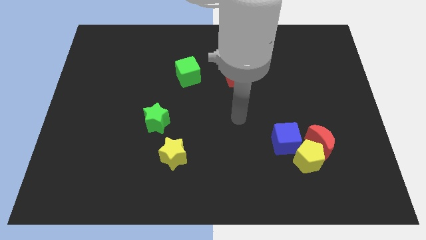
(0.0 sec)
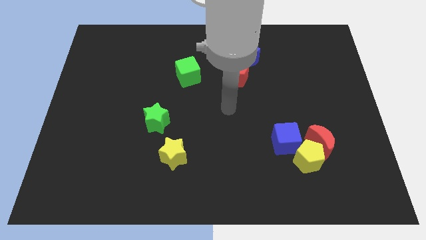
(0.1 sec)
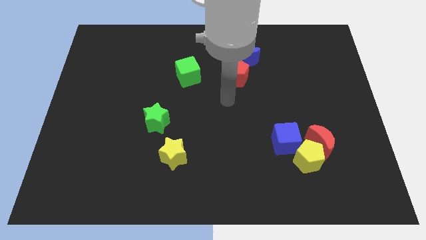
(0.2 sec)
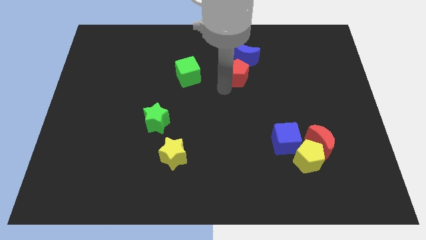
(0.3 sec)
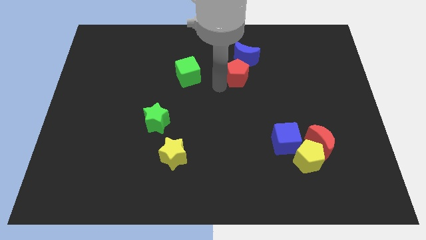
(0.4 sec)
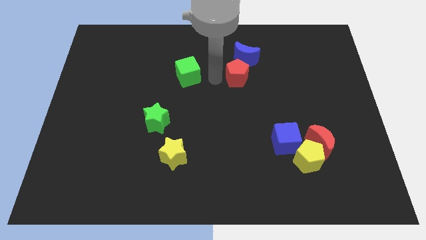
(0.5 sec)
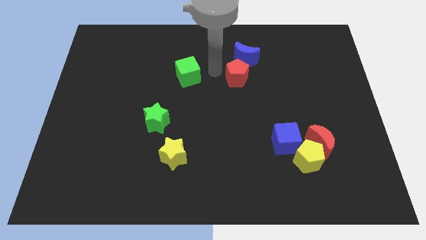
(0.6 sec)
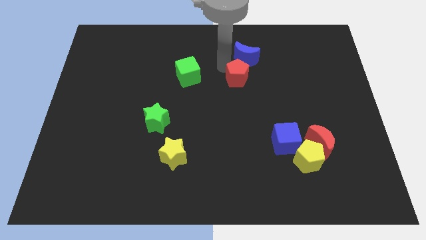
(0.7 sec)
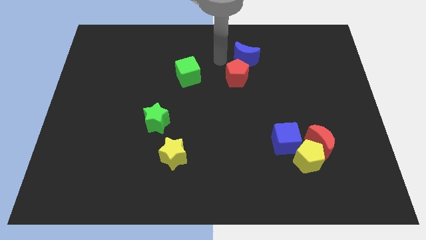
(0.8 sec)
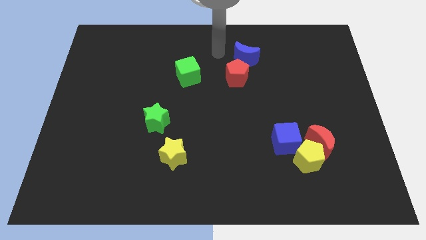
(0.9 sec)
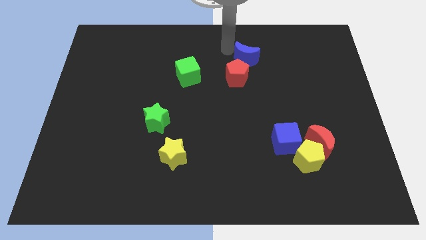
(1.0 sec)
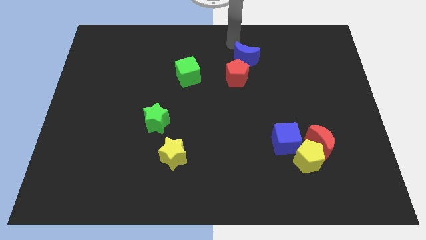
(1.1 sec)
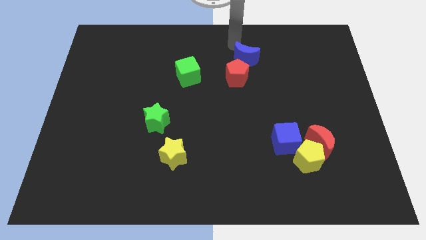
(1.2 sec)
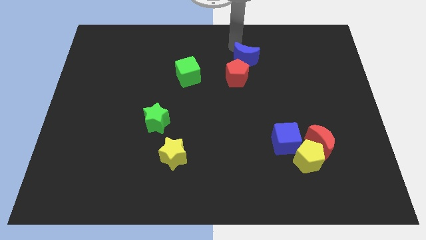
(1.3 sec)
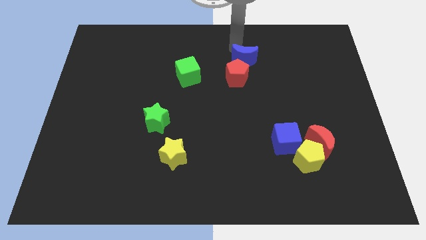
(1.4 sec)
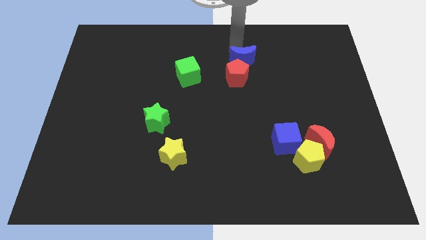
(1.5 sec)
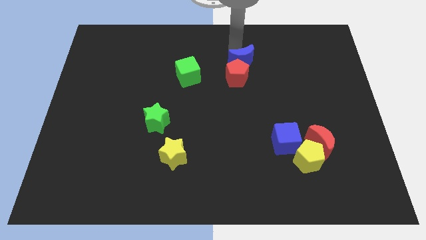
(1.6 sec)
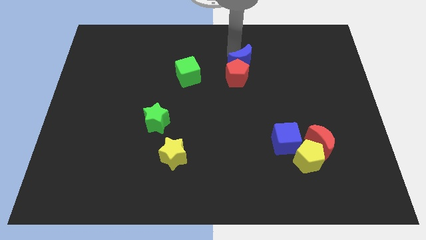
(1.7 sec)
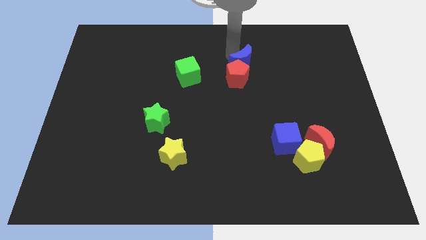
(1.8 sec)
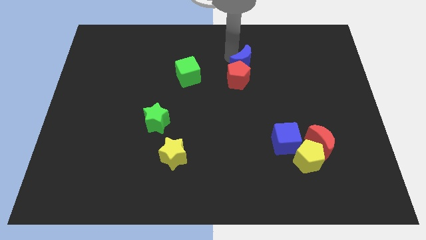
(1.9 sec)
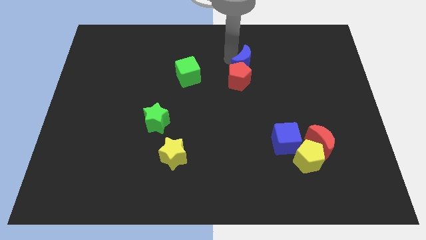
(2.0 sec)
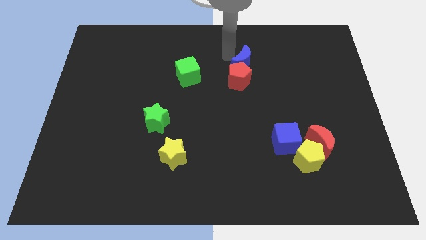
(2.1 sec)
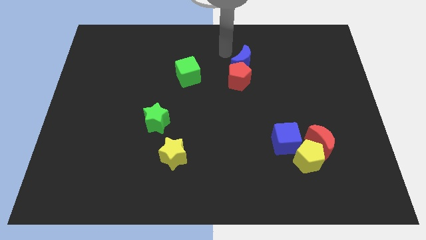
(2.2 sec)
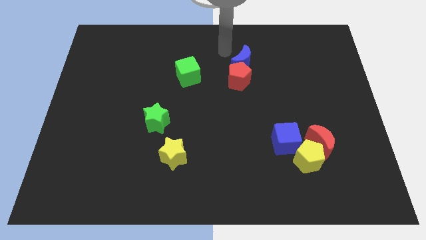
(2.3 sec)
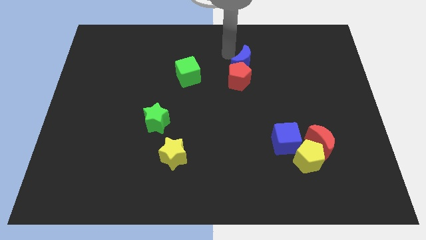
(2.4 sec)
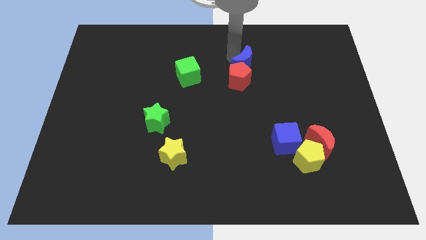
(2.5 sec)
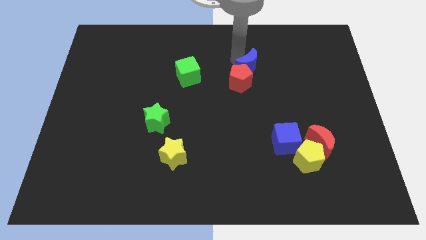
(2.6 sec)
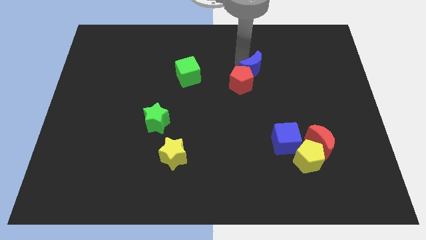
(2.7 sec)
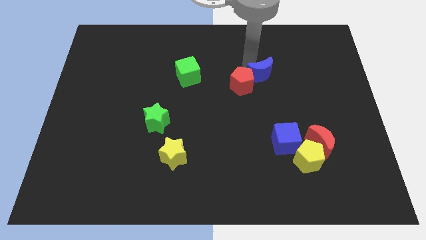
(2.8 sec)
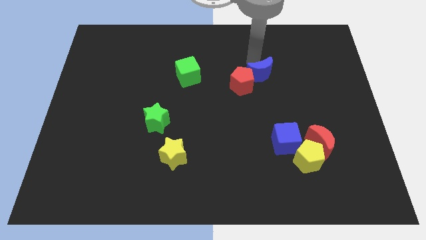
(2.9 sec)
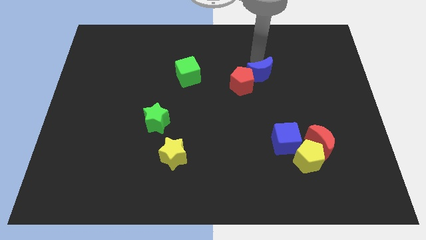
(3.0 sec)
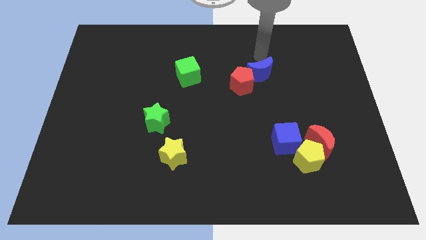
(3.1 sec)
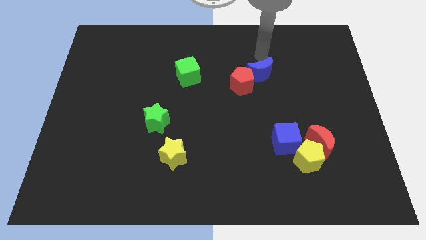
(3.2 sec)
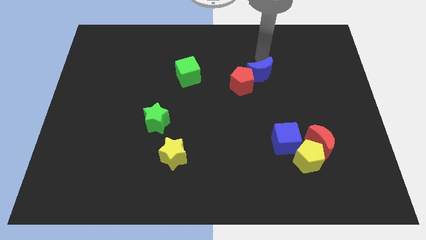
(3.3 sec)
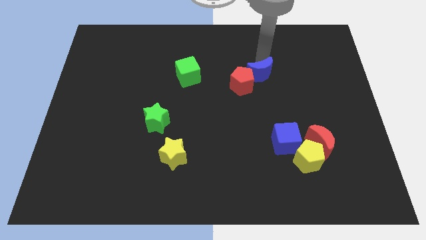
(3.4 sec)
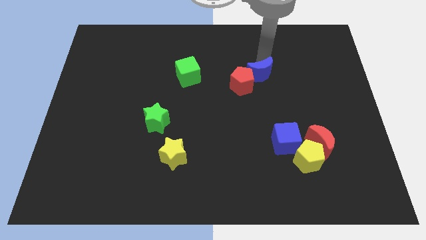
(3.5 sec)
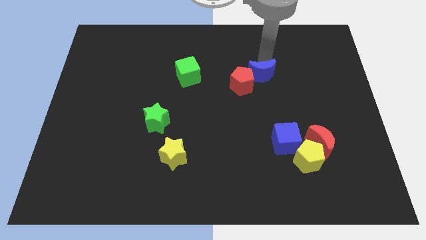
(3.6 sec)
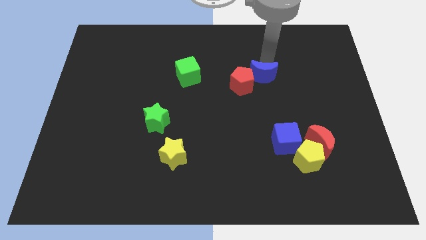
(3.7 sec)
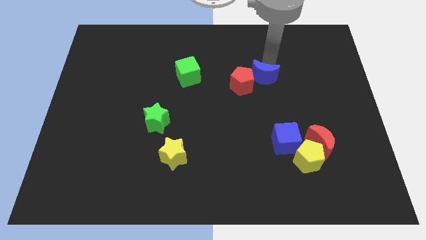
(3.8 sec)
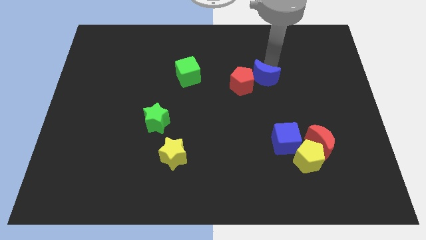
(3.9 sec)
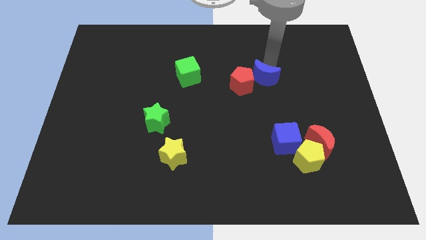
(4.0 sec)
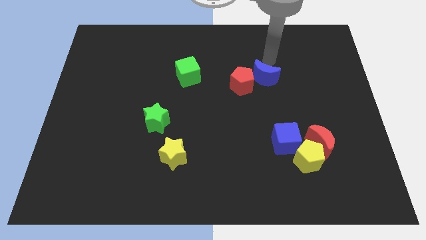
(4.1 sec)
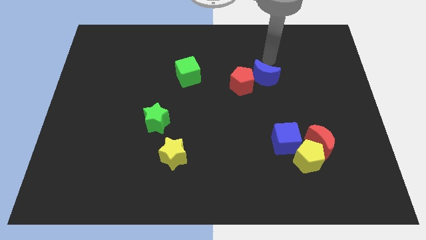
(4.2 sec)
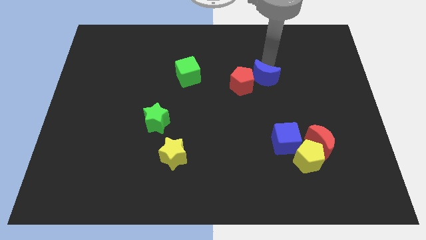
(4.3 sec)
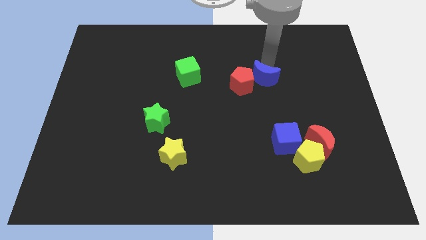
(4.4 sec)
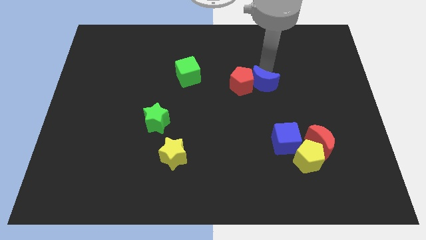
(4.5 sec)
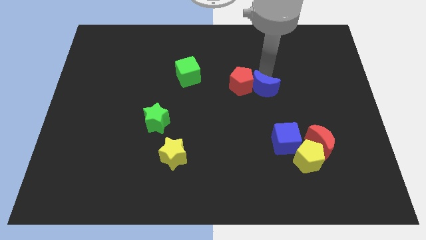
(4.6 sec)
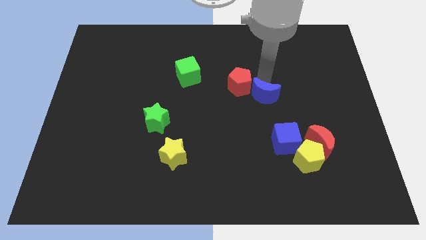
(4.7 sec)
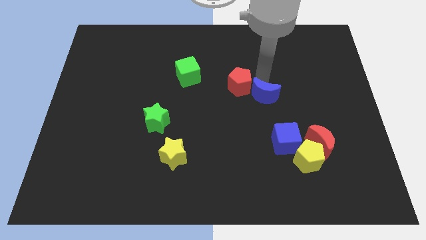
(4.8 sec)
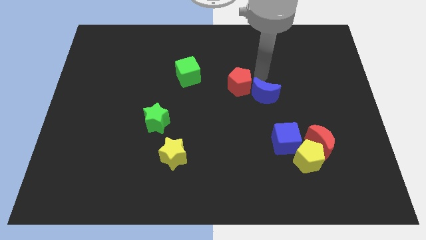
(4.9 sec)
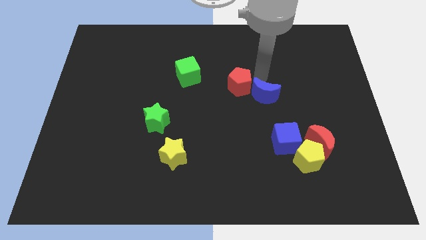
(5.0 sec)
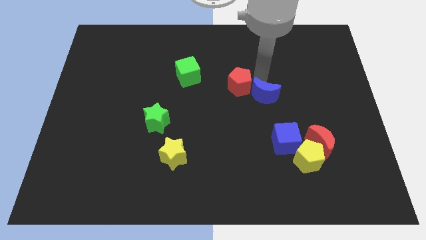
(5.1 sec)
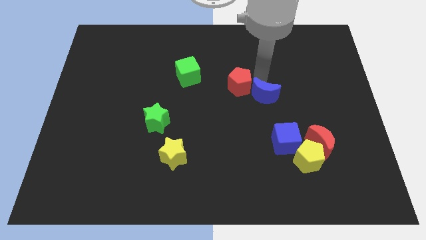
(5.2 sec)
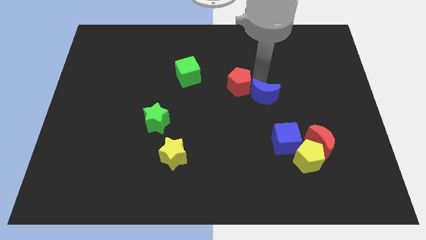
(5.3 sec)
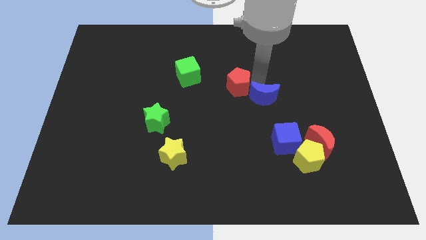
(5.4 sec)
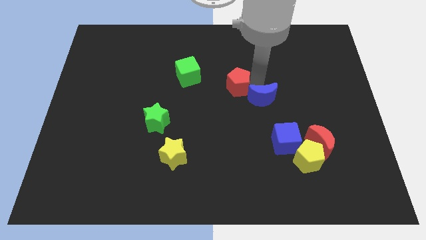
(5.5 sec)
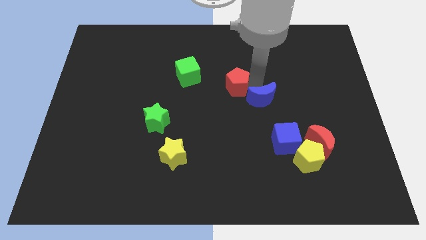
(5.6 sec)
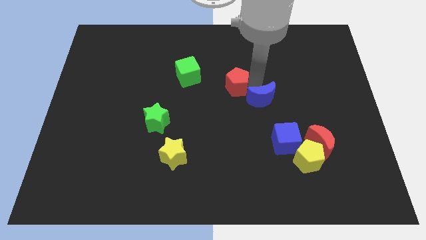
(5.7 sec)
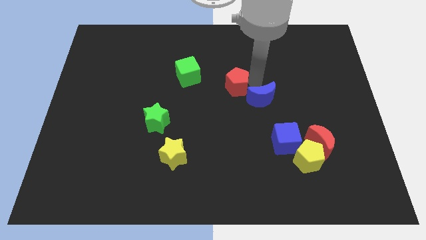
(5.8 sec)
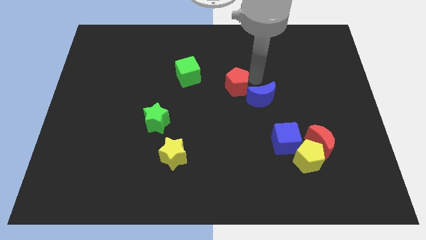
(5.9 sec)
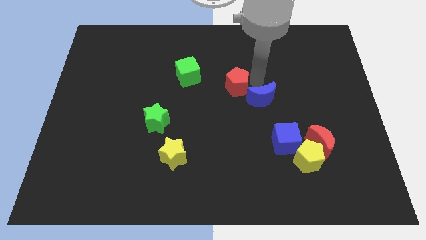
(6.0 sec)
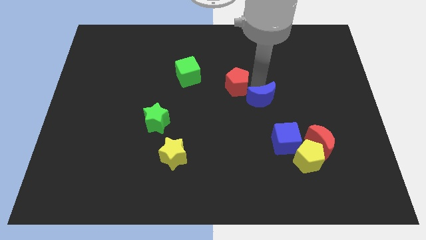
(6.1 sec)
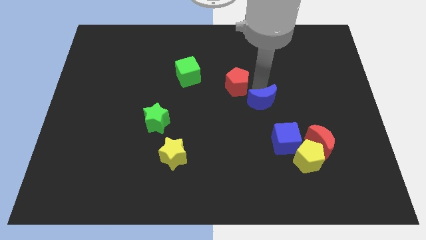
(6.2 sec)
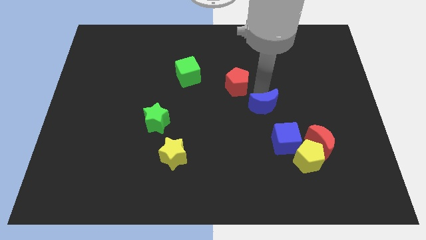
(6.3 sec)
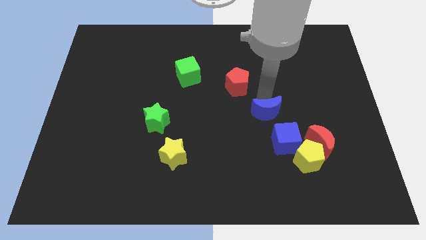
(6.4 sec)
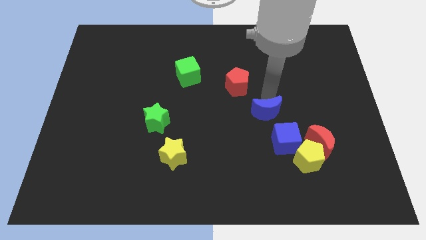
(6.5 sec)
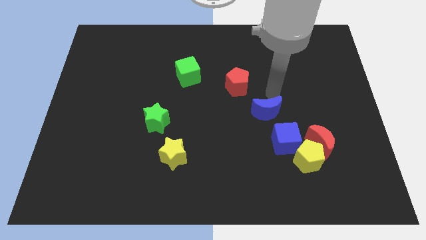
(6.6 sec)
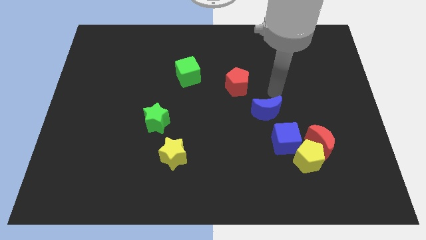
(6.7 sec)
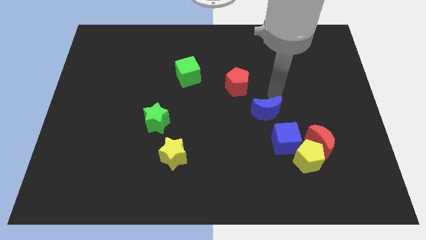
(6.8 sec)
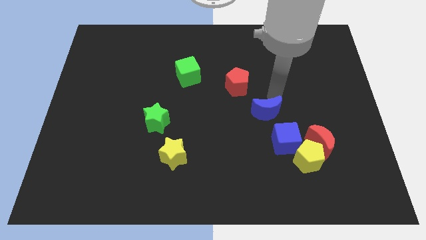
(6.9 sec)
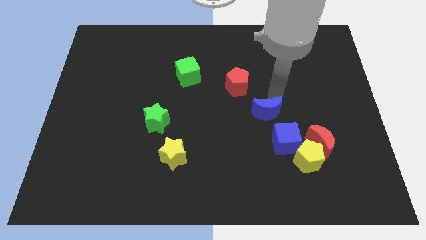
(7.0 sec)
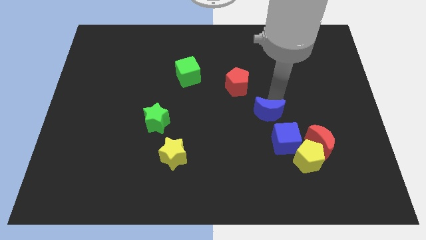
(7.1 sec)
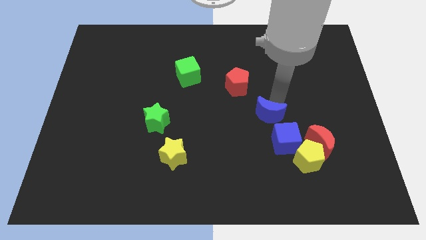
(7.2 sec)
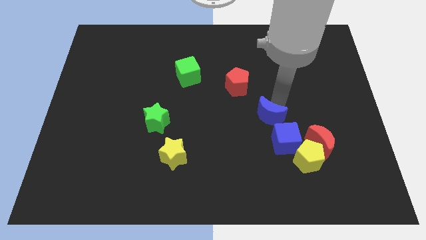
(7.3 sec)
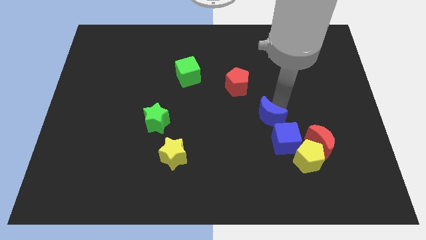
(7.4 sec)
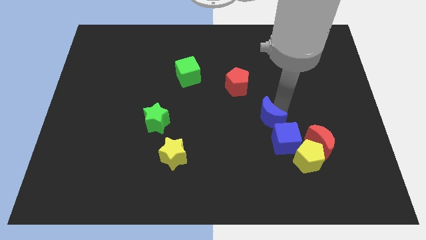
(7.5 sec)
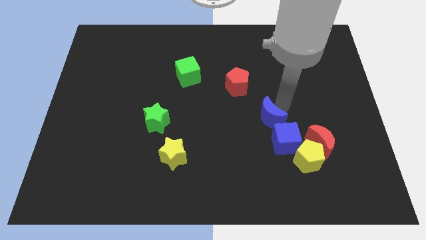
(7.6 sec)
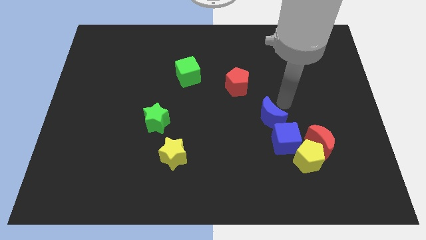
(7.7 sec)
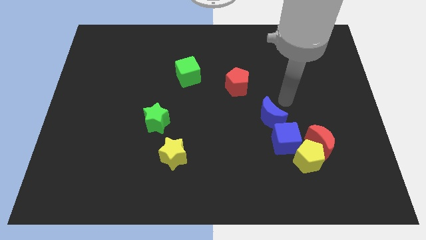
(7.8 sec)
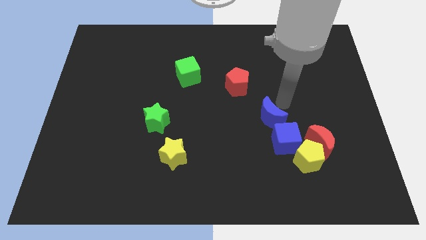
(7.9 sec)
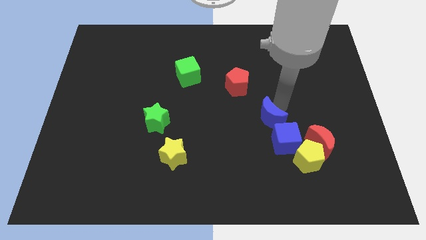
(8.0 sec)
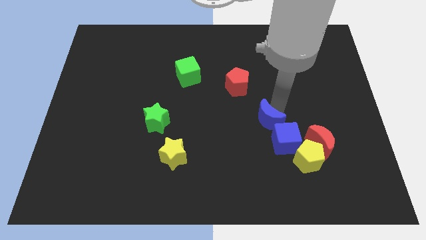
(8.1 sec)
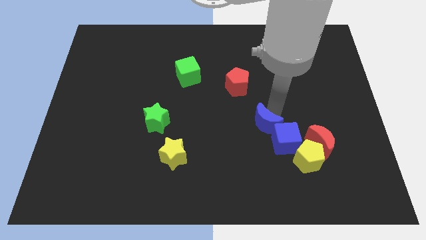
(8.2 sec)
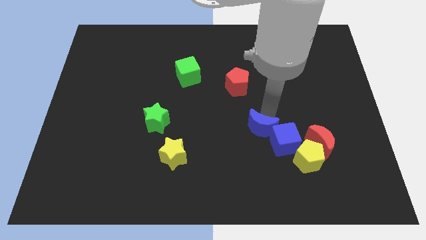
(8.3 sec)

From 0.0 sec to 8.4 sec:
push the blue moon just left of the red moon
